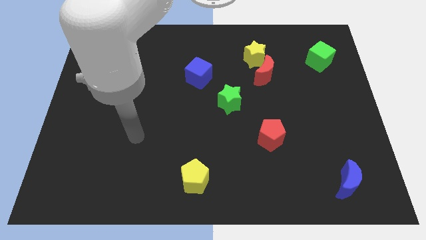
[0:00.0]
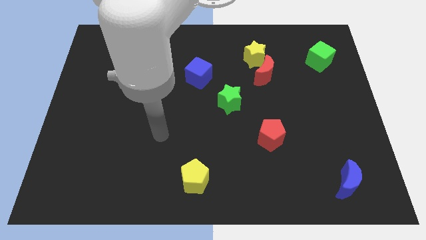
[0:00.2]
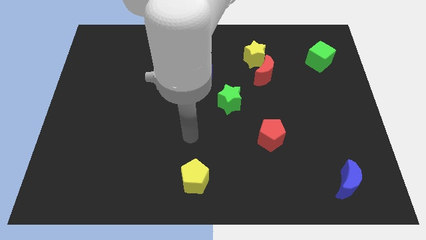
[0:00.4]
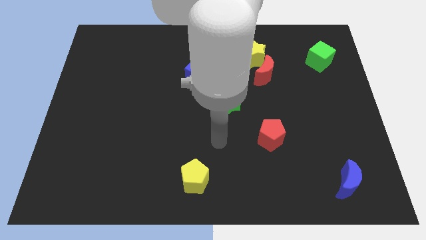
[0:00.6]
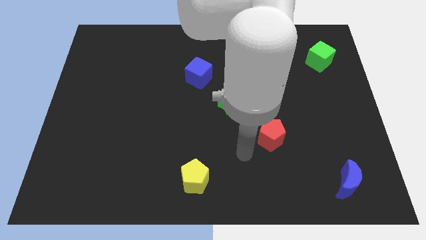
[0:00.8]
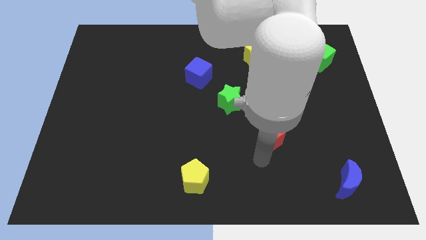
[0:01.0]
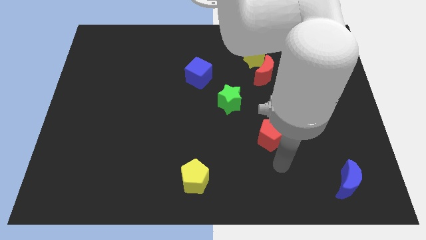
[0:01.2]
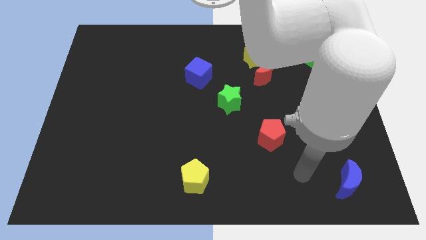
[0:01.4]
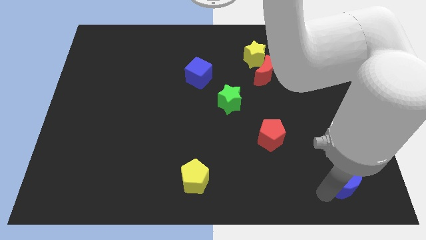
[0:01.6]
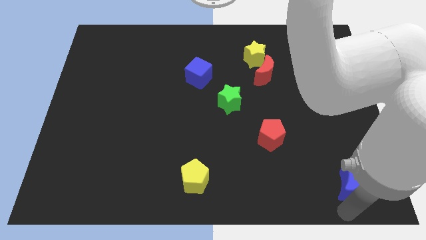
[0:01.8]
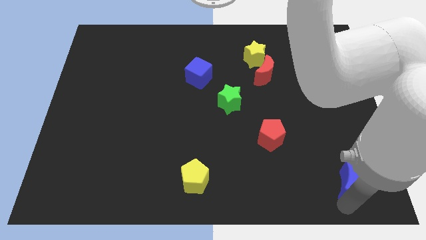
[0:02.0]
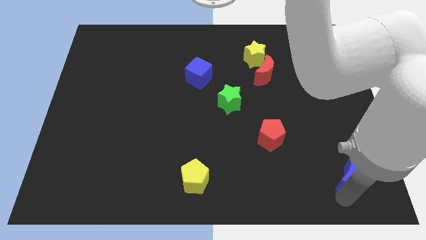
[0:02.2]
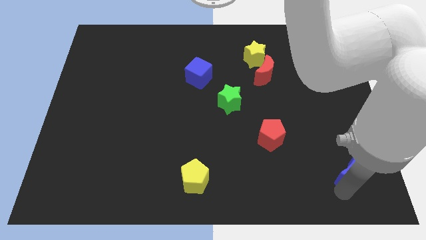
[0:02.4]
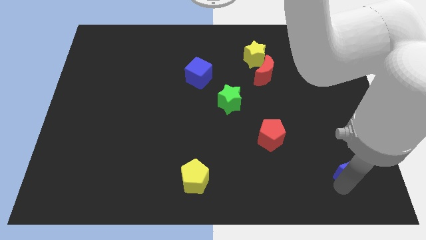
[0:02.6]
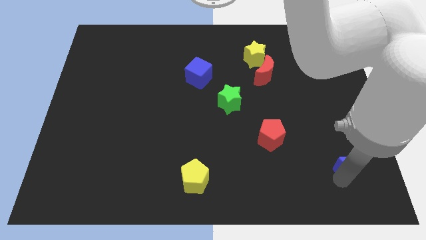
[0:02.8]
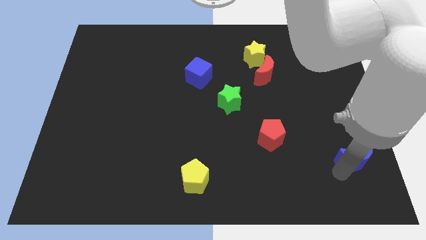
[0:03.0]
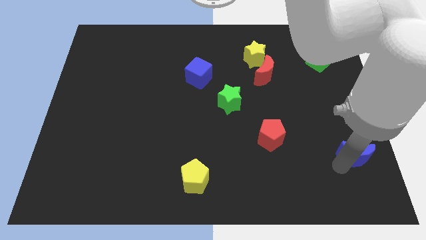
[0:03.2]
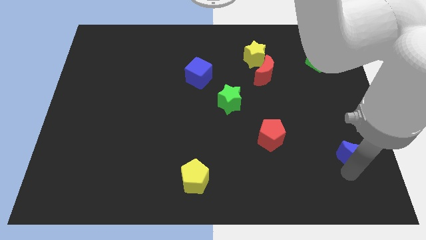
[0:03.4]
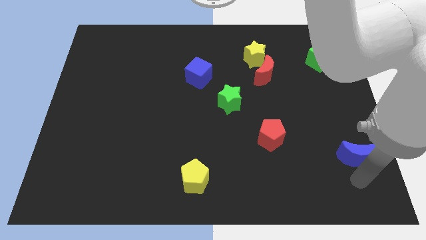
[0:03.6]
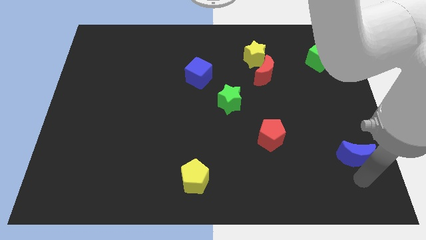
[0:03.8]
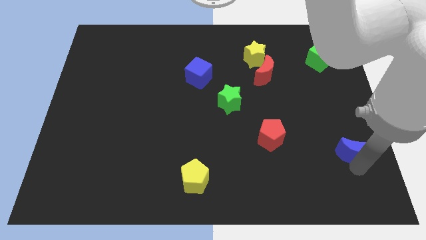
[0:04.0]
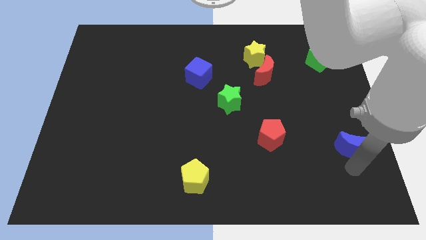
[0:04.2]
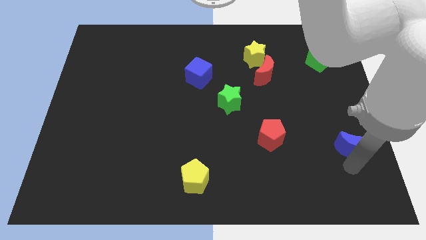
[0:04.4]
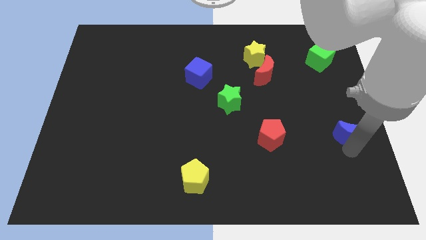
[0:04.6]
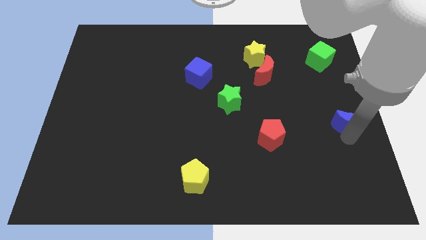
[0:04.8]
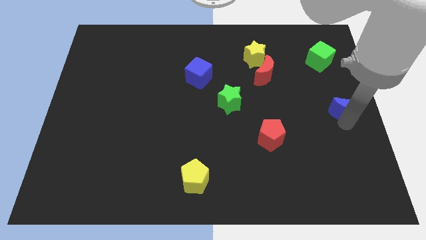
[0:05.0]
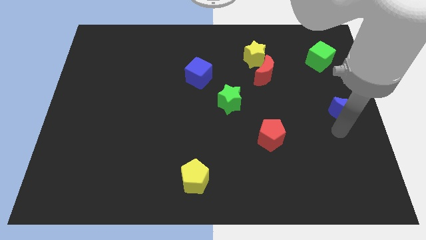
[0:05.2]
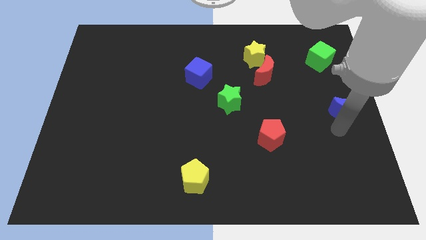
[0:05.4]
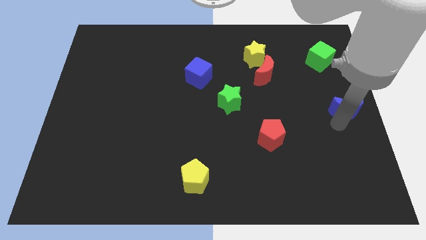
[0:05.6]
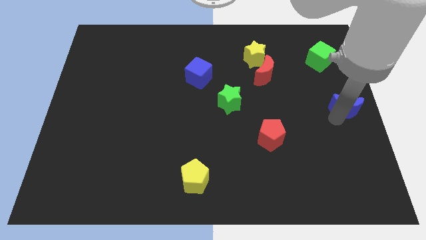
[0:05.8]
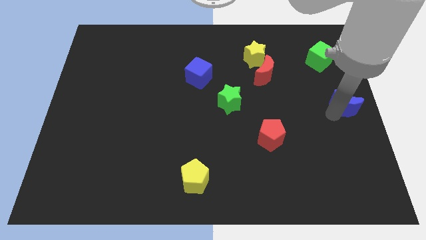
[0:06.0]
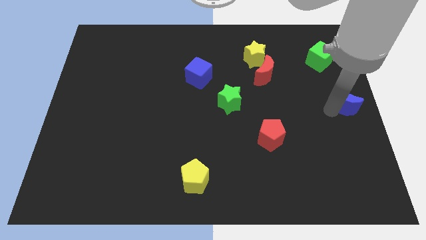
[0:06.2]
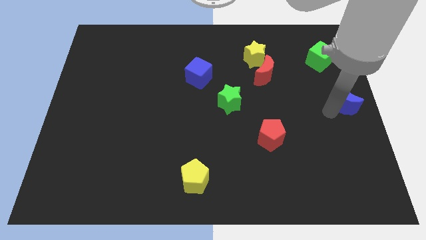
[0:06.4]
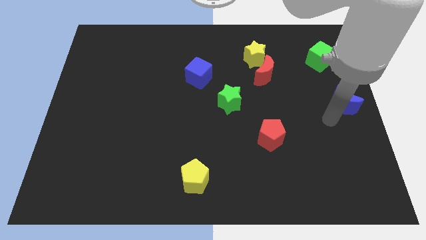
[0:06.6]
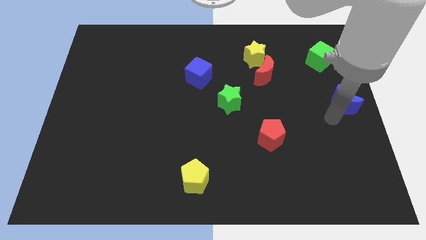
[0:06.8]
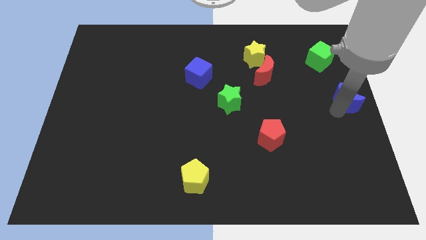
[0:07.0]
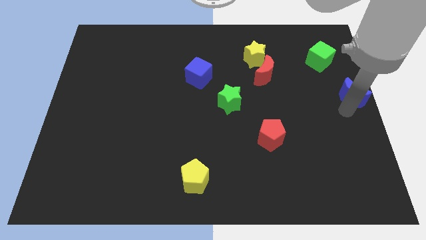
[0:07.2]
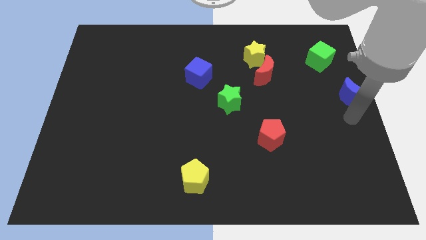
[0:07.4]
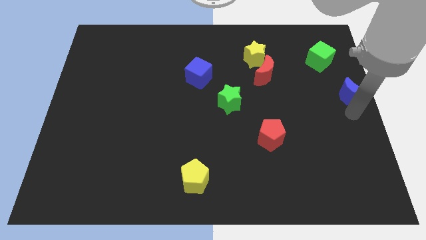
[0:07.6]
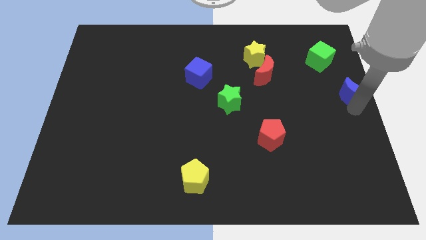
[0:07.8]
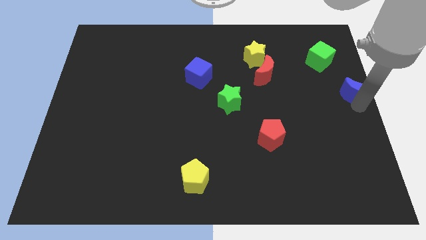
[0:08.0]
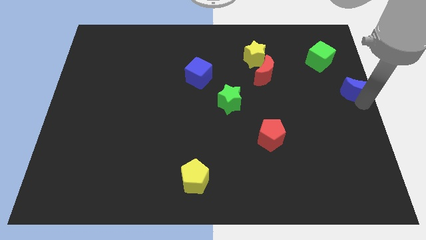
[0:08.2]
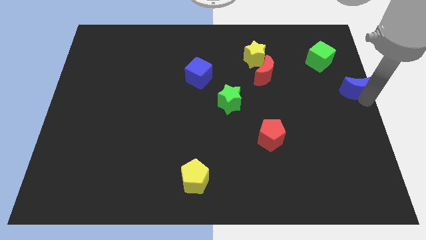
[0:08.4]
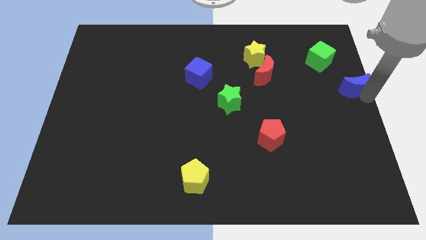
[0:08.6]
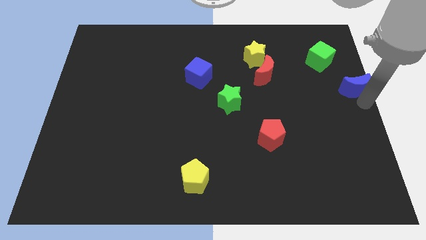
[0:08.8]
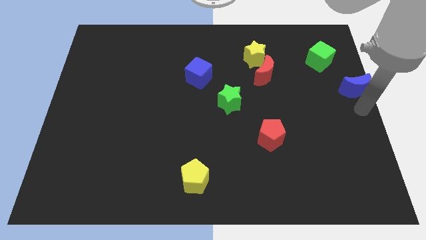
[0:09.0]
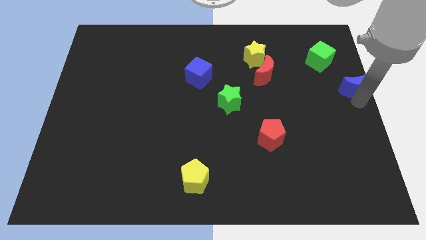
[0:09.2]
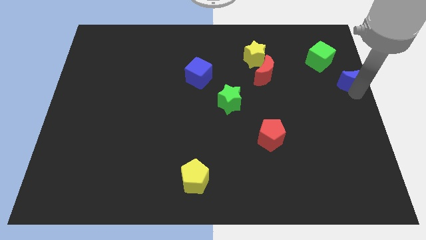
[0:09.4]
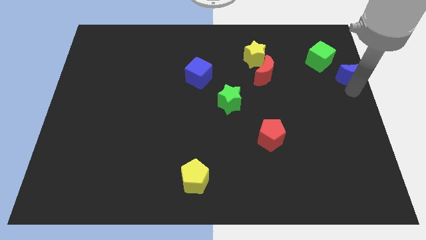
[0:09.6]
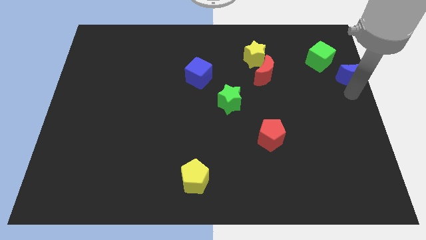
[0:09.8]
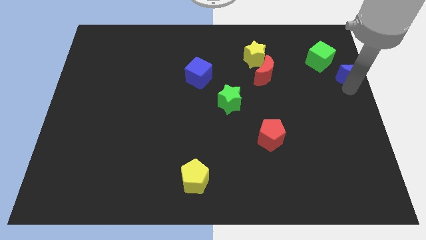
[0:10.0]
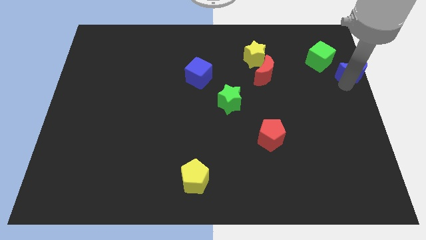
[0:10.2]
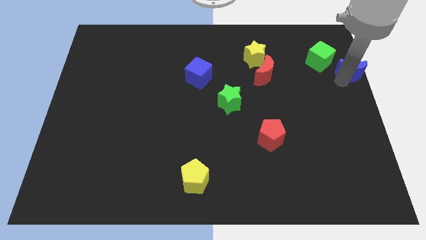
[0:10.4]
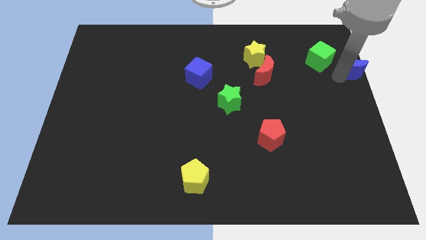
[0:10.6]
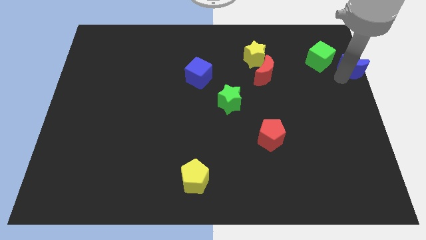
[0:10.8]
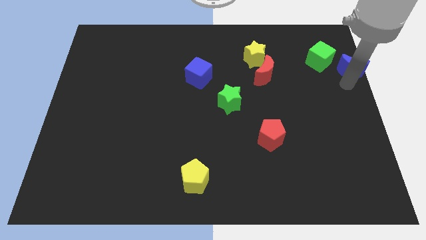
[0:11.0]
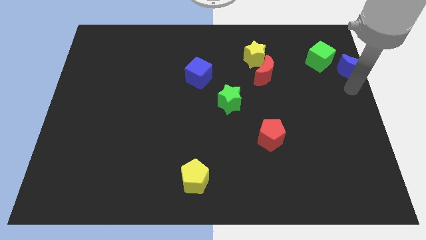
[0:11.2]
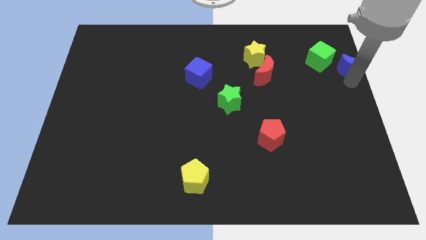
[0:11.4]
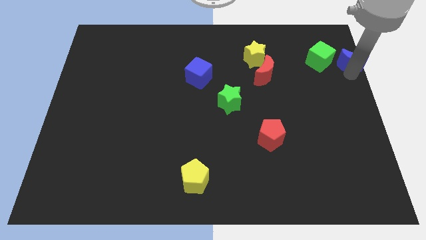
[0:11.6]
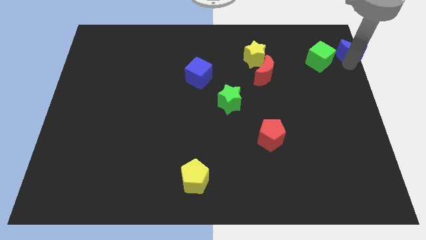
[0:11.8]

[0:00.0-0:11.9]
push the blue moon to the upper right corner
